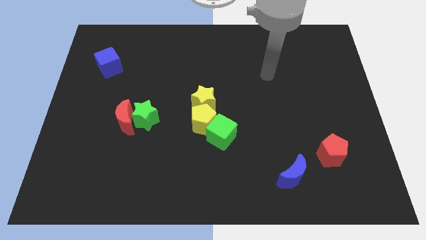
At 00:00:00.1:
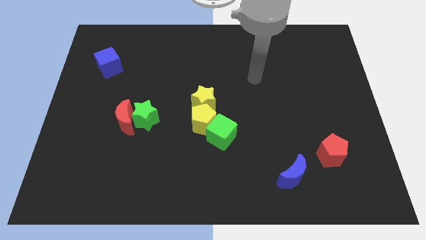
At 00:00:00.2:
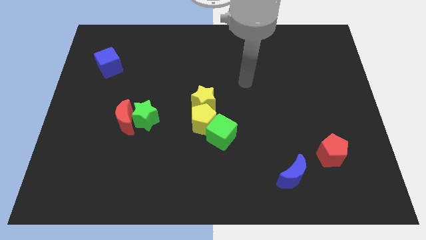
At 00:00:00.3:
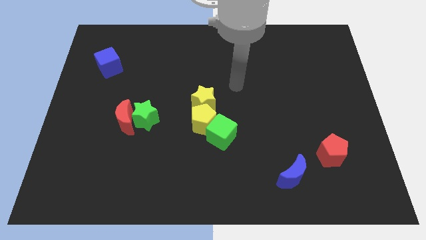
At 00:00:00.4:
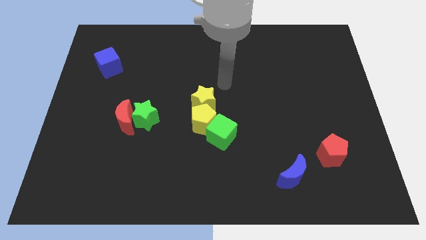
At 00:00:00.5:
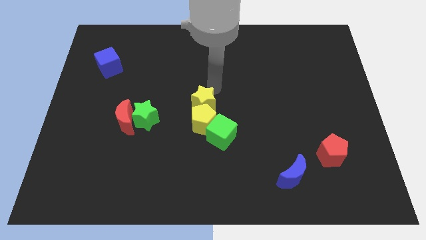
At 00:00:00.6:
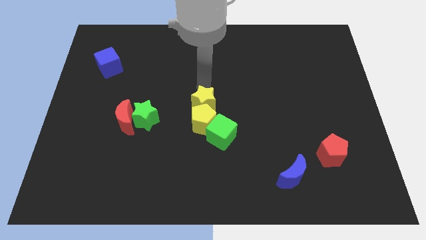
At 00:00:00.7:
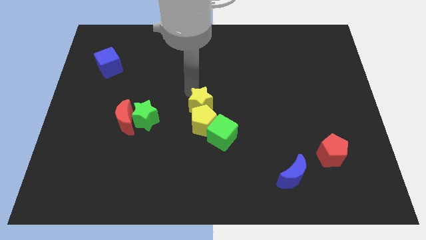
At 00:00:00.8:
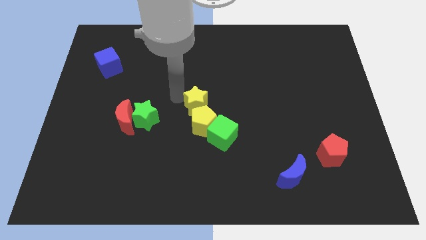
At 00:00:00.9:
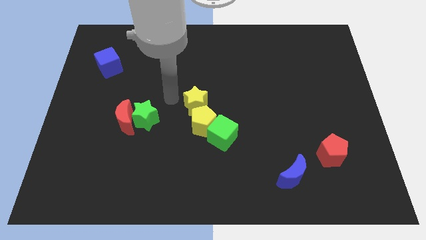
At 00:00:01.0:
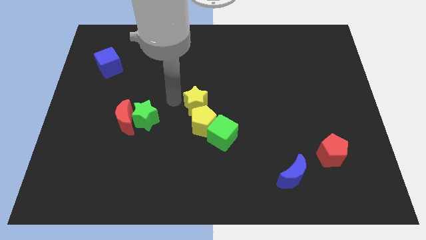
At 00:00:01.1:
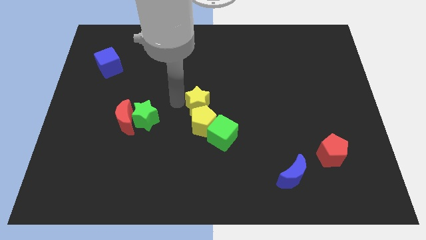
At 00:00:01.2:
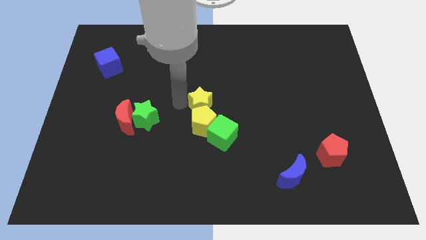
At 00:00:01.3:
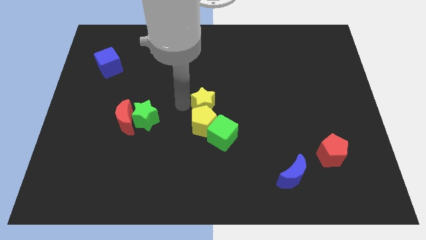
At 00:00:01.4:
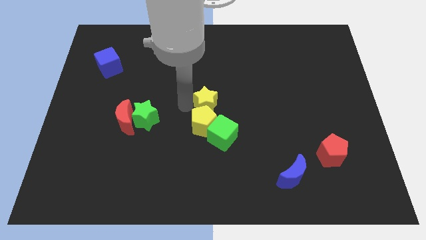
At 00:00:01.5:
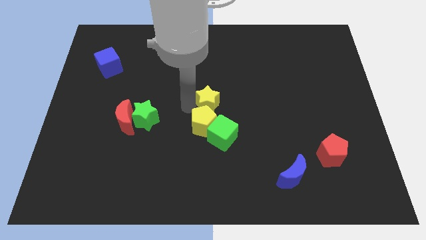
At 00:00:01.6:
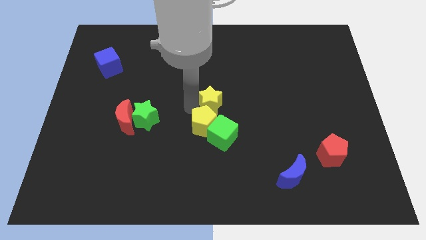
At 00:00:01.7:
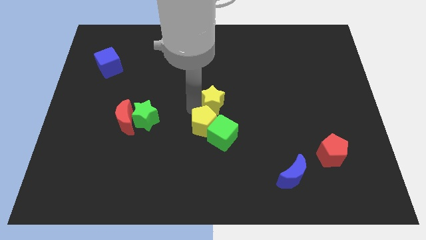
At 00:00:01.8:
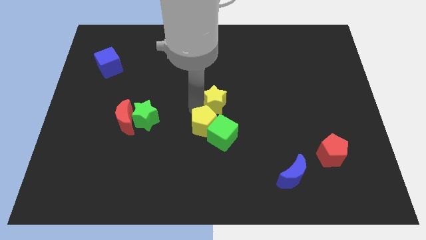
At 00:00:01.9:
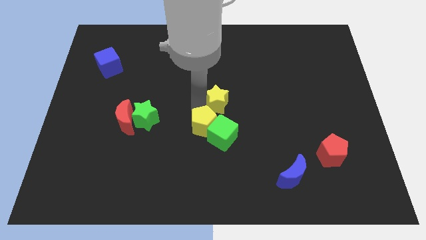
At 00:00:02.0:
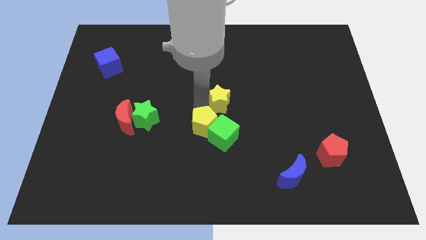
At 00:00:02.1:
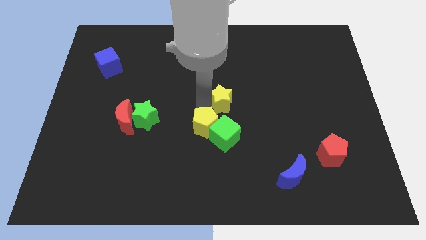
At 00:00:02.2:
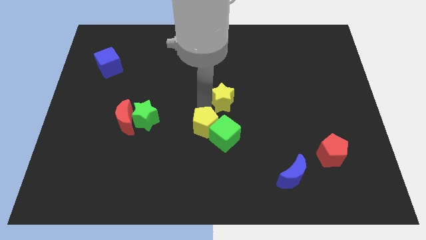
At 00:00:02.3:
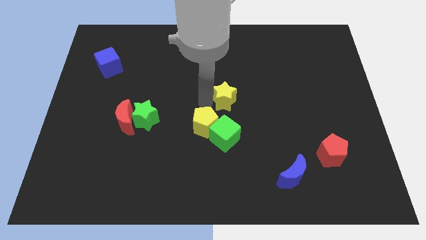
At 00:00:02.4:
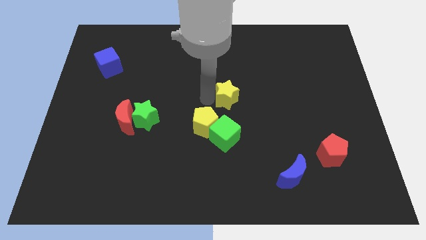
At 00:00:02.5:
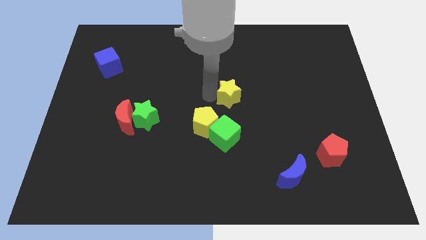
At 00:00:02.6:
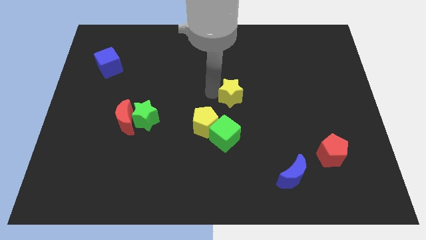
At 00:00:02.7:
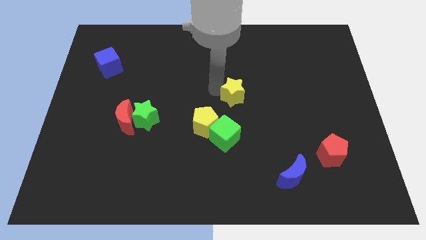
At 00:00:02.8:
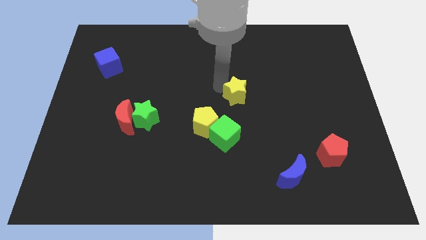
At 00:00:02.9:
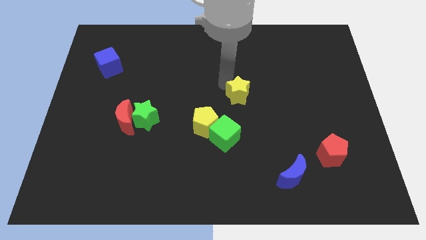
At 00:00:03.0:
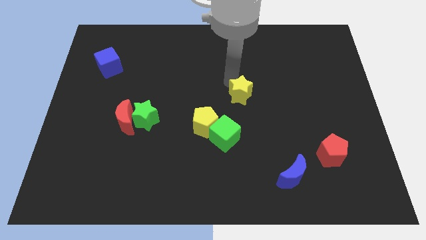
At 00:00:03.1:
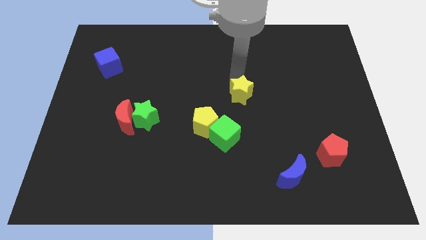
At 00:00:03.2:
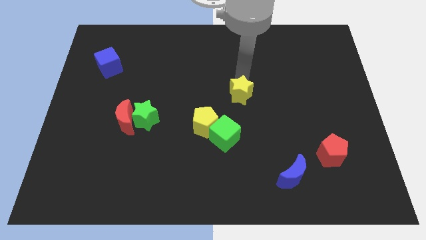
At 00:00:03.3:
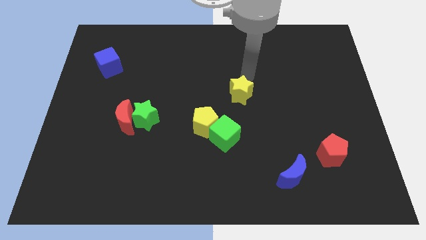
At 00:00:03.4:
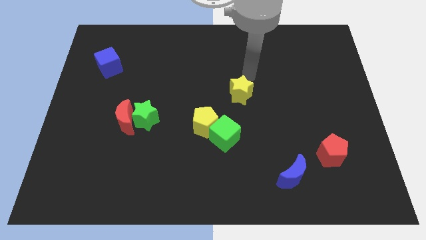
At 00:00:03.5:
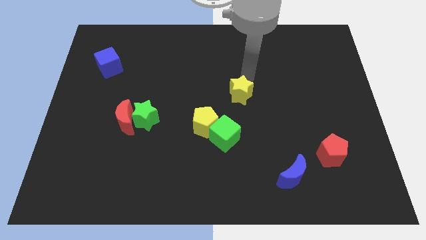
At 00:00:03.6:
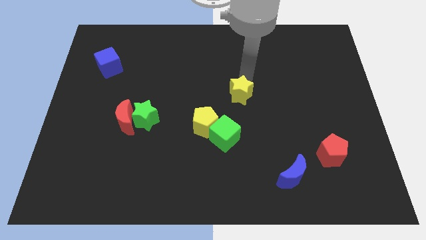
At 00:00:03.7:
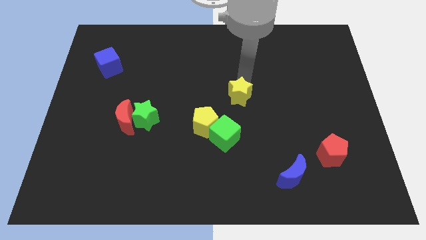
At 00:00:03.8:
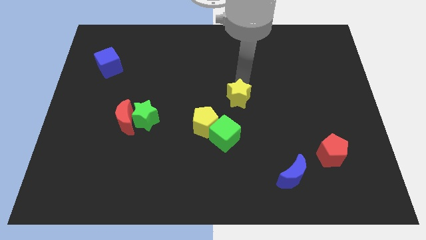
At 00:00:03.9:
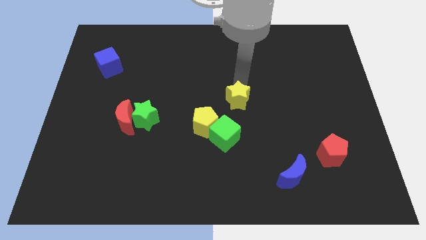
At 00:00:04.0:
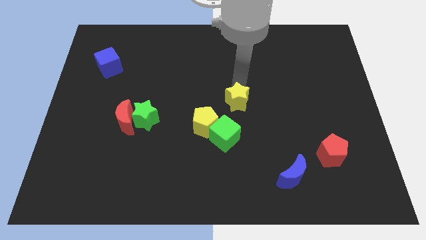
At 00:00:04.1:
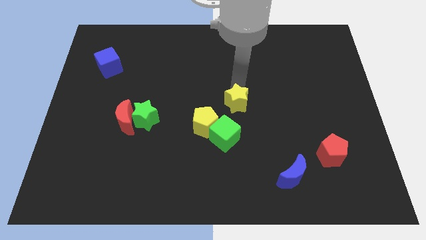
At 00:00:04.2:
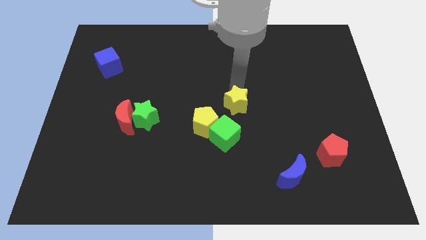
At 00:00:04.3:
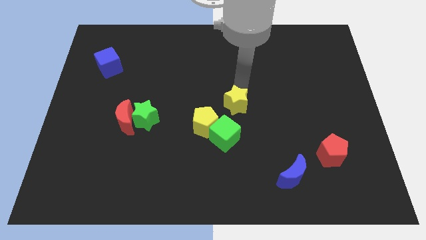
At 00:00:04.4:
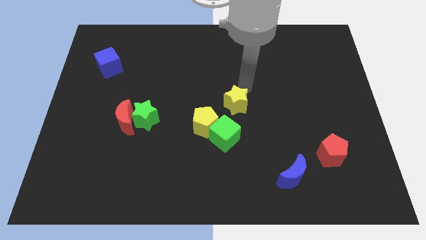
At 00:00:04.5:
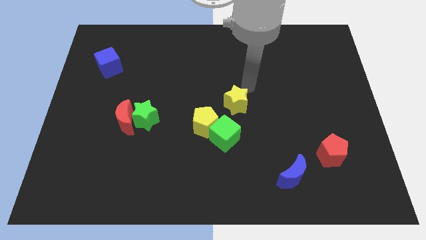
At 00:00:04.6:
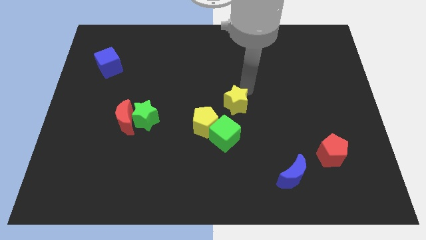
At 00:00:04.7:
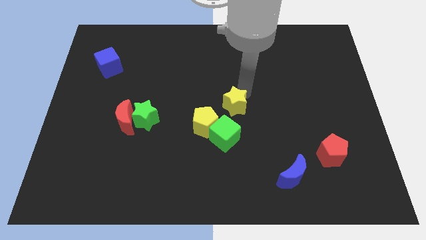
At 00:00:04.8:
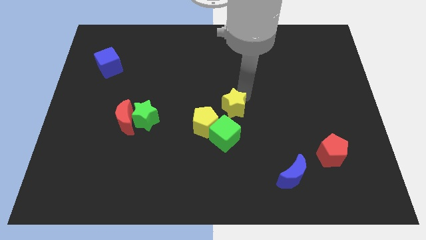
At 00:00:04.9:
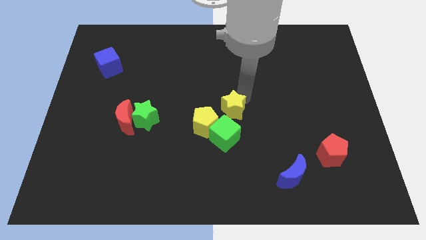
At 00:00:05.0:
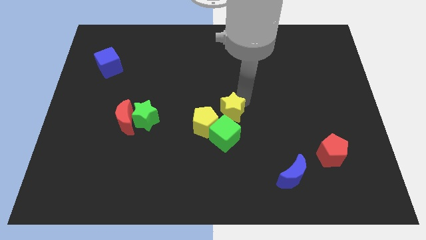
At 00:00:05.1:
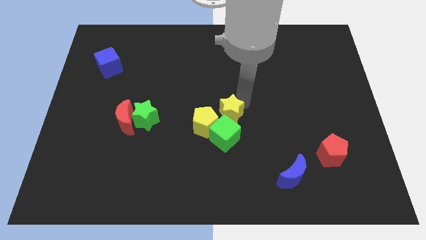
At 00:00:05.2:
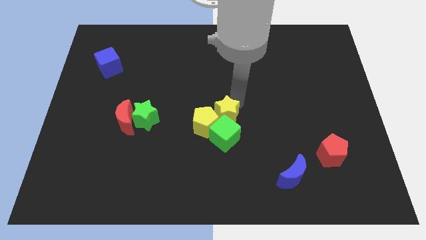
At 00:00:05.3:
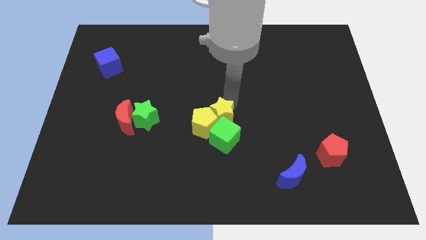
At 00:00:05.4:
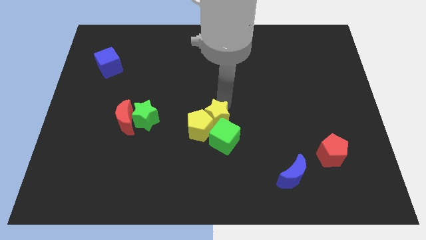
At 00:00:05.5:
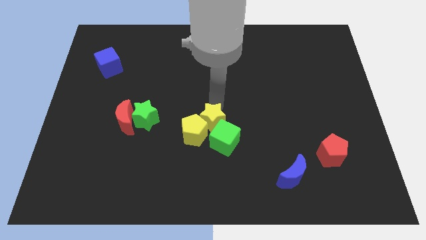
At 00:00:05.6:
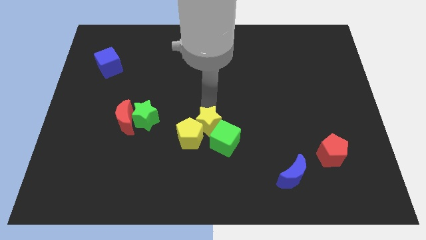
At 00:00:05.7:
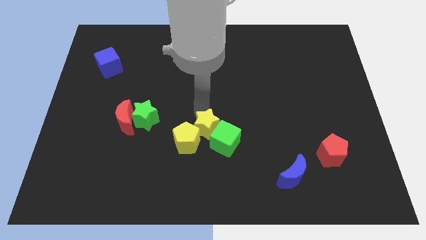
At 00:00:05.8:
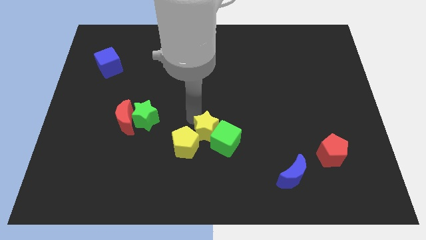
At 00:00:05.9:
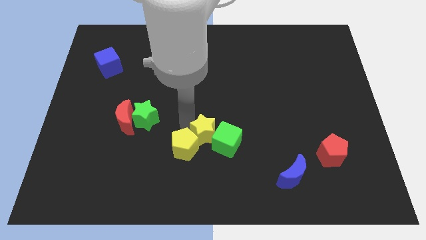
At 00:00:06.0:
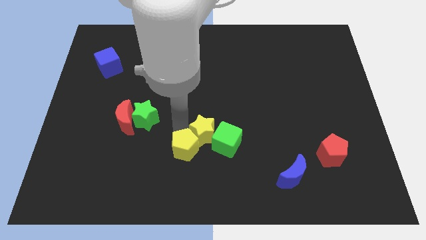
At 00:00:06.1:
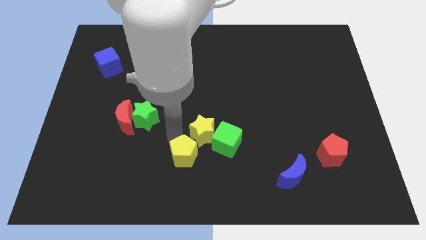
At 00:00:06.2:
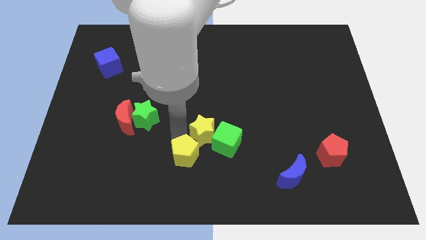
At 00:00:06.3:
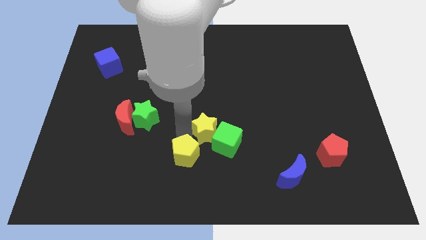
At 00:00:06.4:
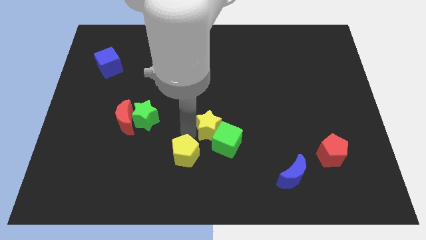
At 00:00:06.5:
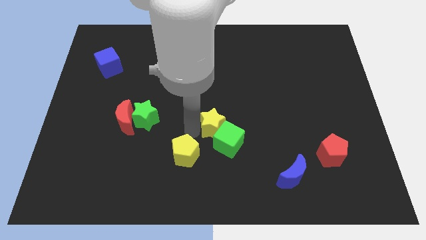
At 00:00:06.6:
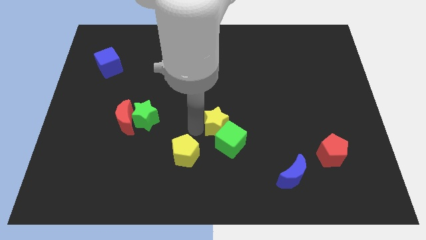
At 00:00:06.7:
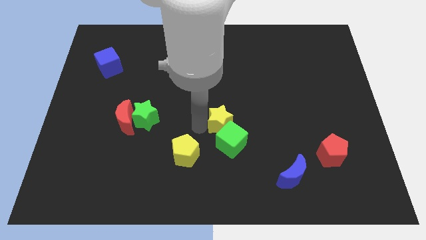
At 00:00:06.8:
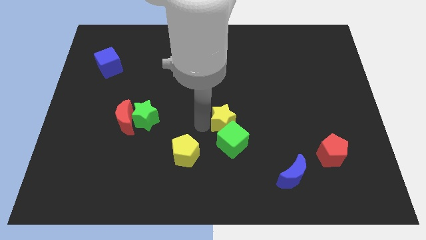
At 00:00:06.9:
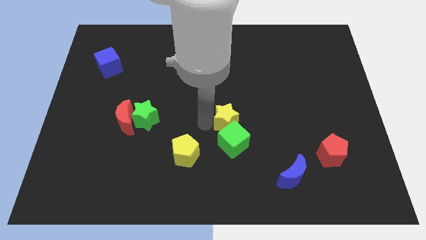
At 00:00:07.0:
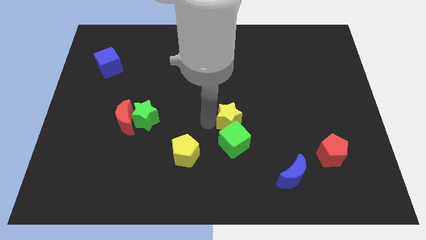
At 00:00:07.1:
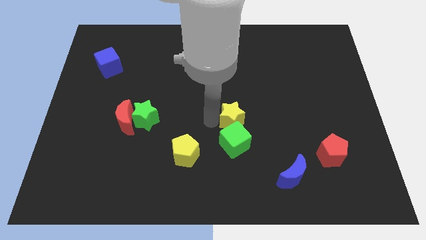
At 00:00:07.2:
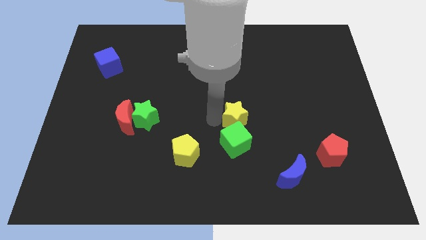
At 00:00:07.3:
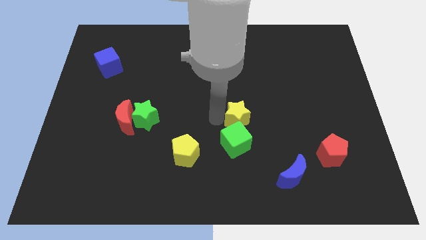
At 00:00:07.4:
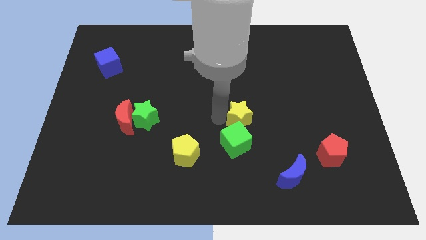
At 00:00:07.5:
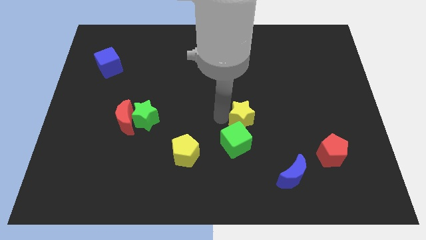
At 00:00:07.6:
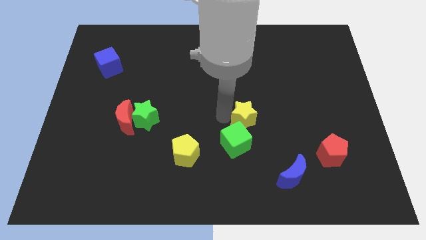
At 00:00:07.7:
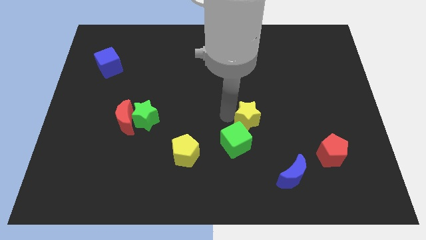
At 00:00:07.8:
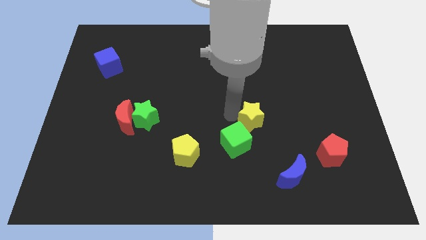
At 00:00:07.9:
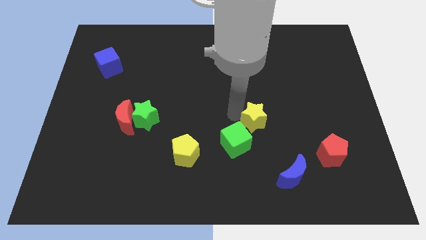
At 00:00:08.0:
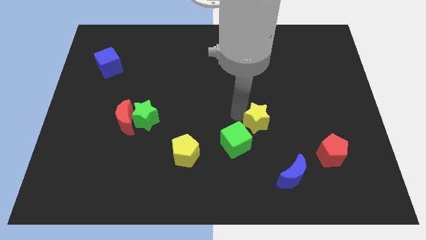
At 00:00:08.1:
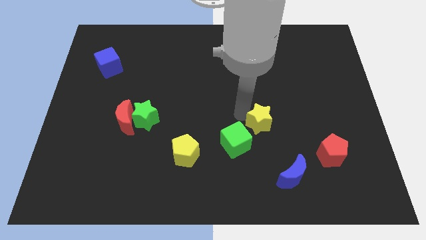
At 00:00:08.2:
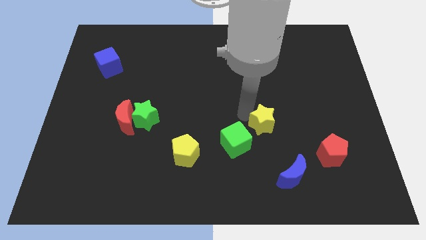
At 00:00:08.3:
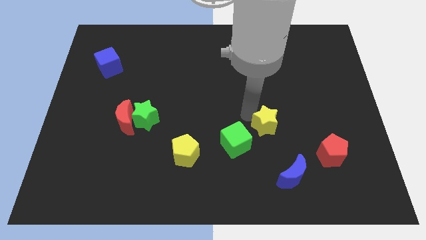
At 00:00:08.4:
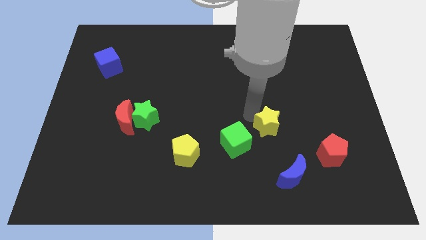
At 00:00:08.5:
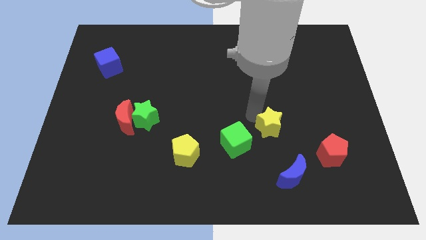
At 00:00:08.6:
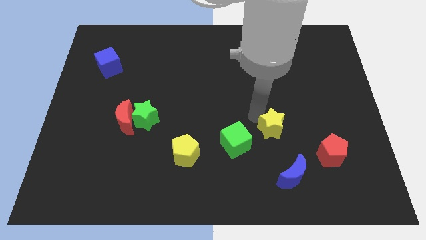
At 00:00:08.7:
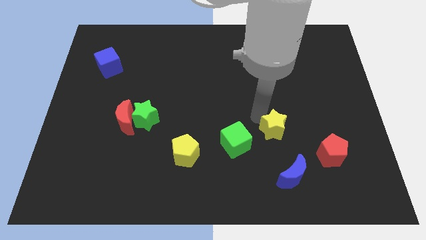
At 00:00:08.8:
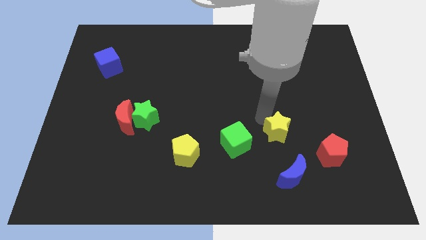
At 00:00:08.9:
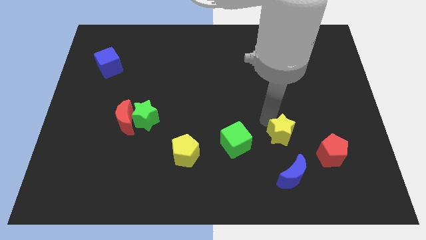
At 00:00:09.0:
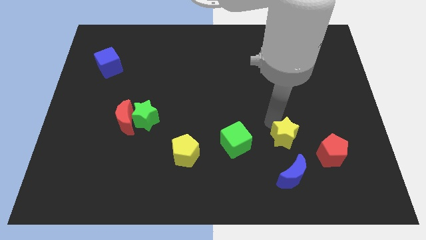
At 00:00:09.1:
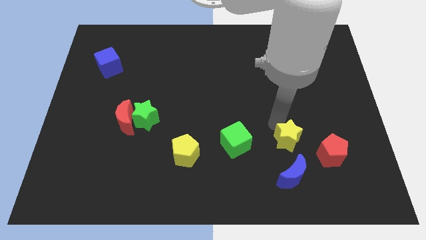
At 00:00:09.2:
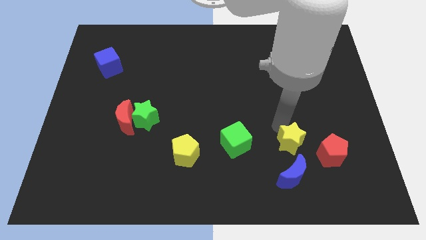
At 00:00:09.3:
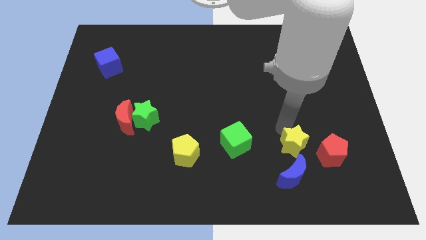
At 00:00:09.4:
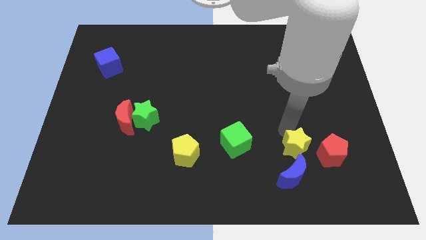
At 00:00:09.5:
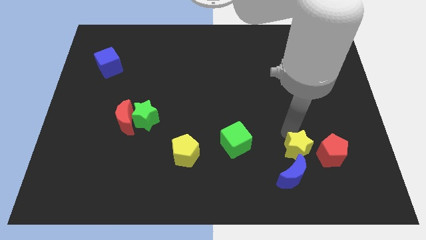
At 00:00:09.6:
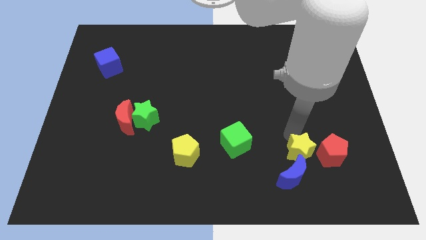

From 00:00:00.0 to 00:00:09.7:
move the yellow star to the blue moon
